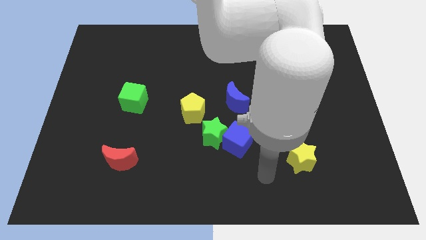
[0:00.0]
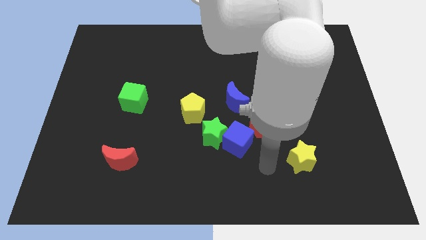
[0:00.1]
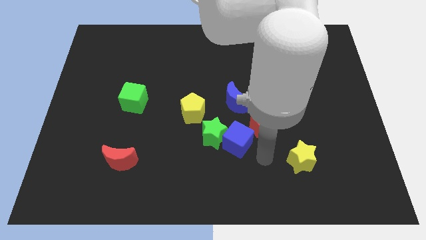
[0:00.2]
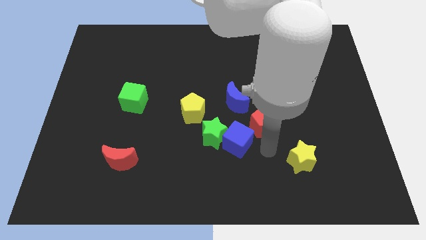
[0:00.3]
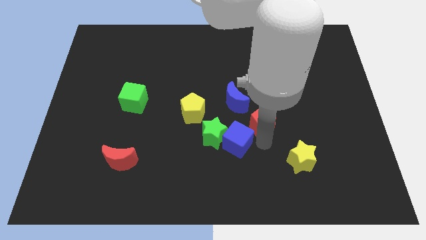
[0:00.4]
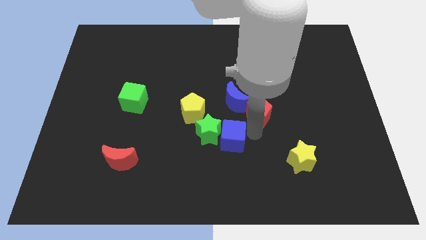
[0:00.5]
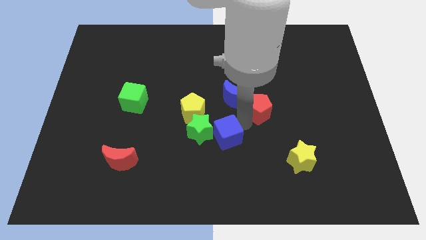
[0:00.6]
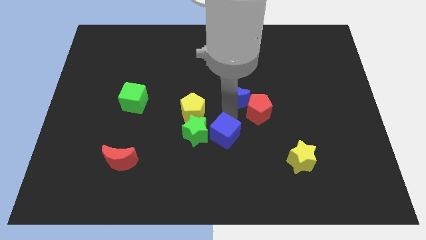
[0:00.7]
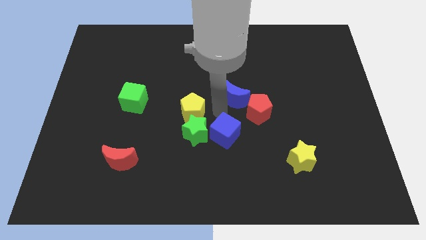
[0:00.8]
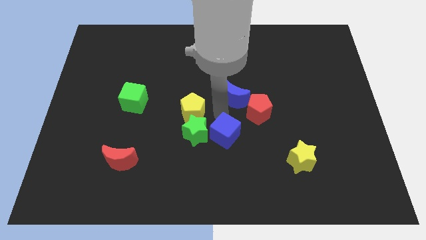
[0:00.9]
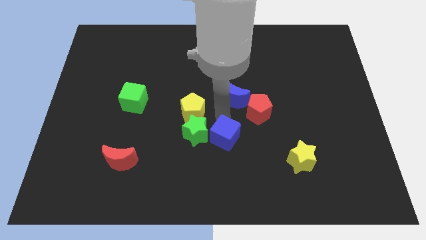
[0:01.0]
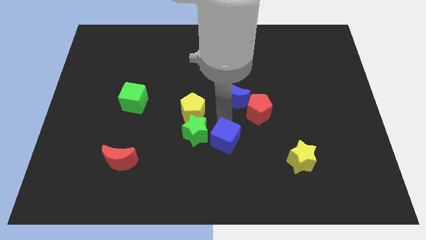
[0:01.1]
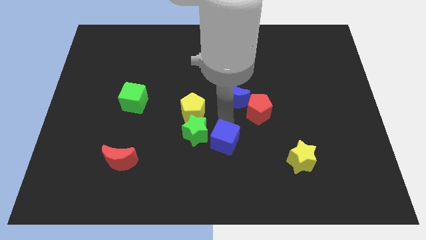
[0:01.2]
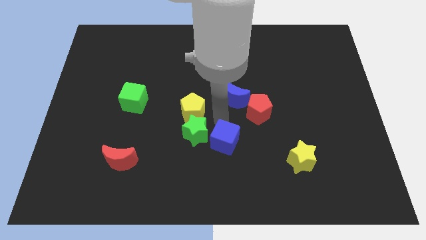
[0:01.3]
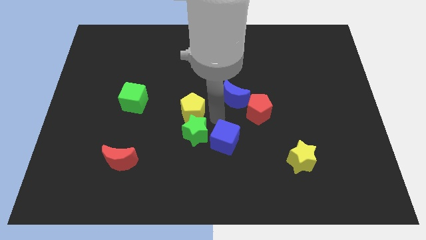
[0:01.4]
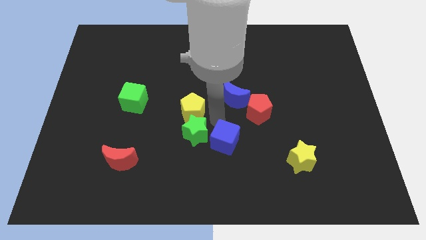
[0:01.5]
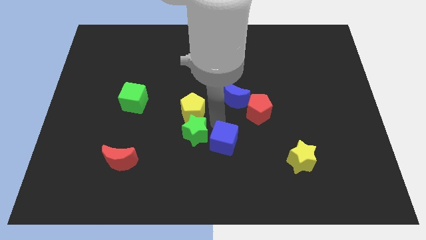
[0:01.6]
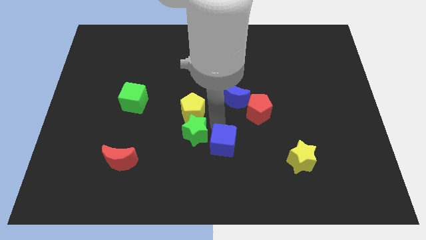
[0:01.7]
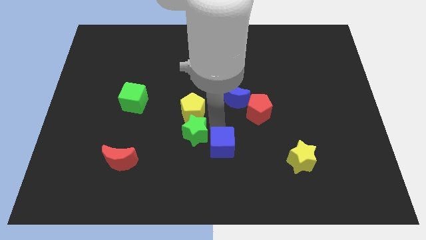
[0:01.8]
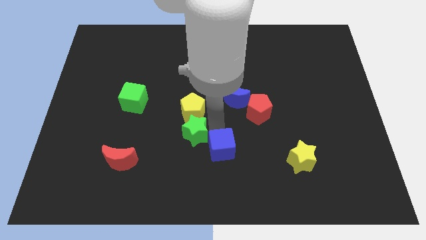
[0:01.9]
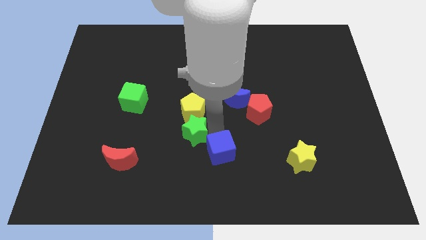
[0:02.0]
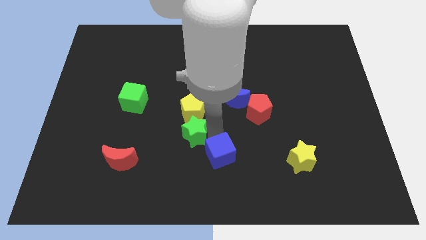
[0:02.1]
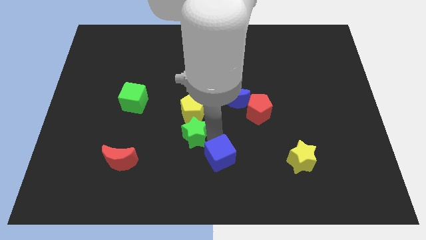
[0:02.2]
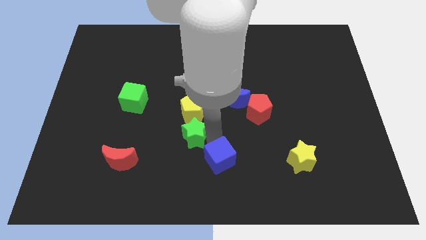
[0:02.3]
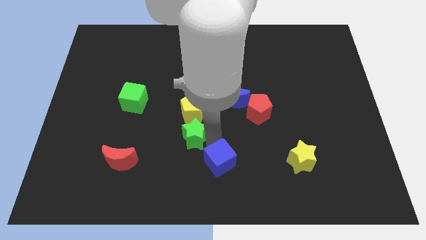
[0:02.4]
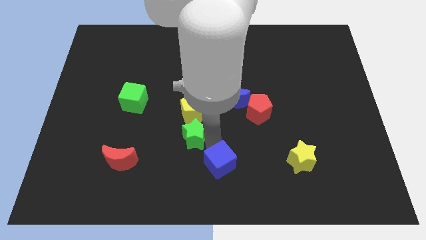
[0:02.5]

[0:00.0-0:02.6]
separate the blue cube from the green star and red pentagon

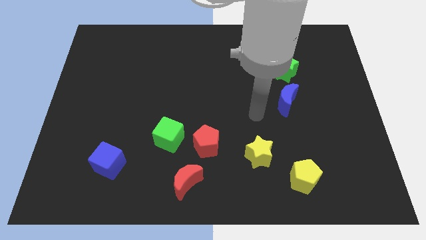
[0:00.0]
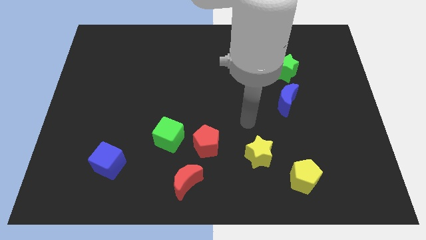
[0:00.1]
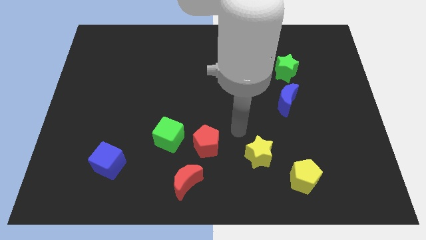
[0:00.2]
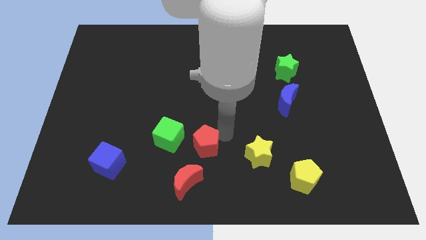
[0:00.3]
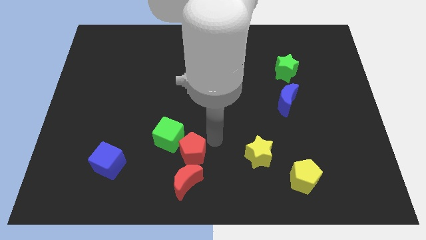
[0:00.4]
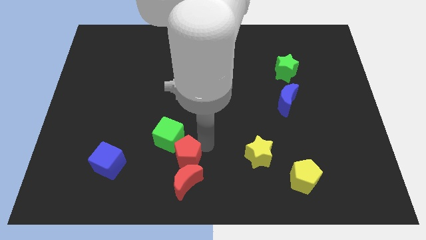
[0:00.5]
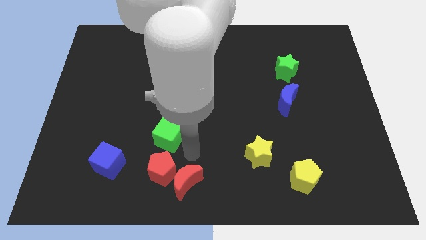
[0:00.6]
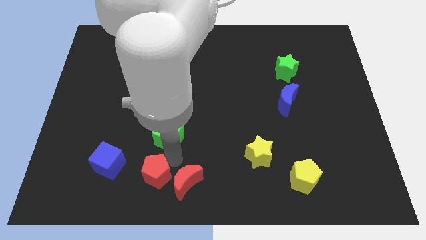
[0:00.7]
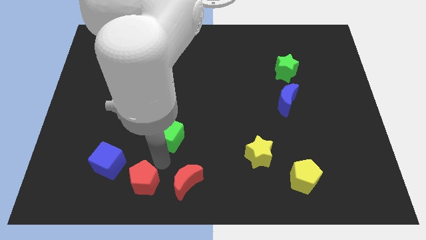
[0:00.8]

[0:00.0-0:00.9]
pull the green cube apart from the red pentagon

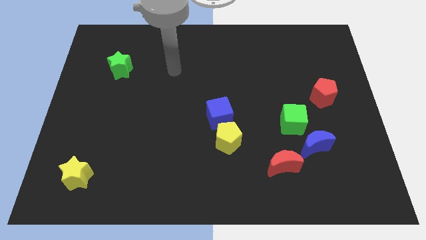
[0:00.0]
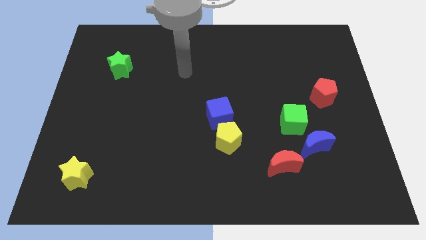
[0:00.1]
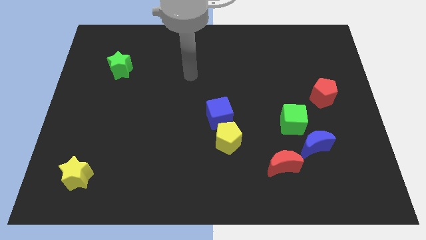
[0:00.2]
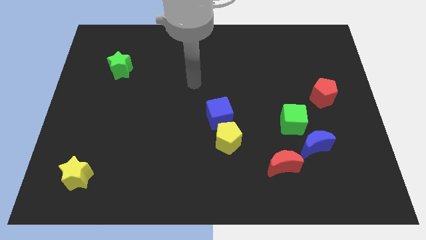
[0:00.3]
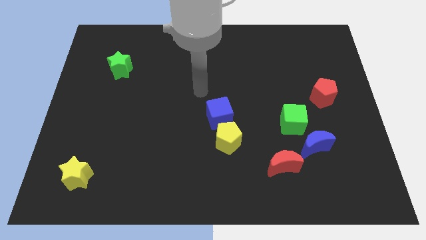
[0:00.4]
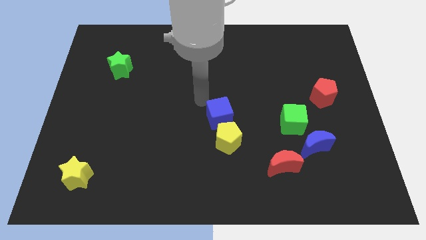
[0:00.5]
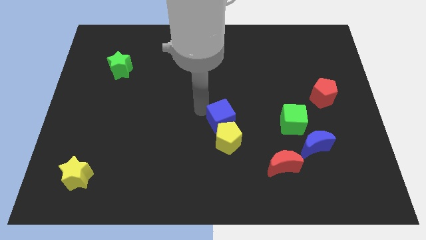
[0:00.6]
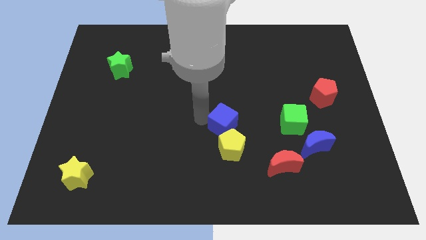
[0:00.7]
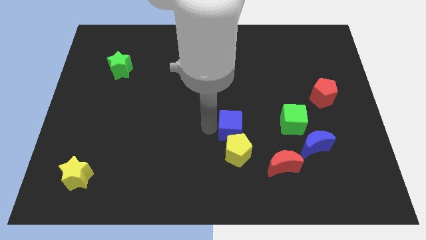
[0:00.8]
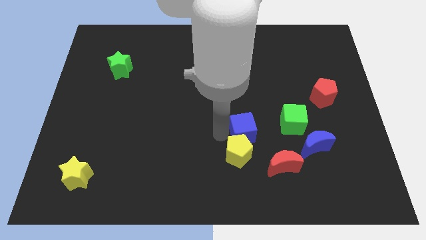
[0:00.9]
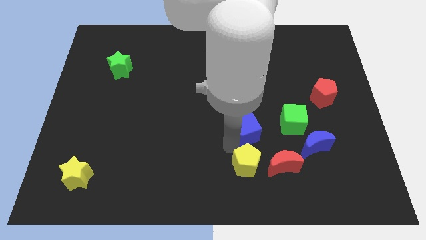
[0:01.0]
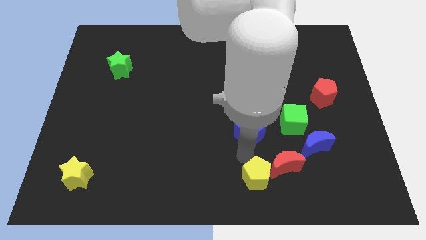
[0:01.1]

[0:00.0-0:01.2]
move the blue cube away from the yellow pentagon

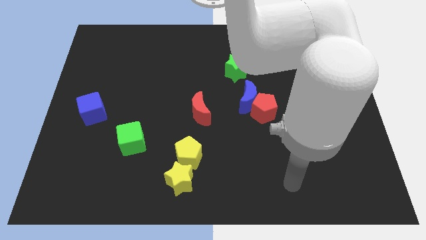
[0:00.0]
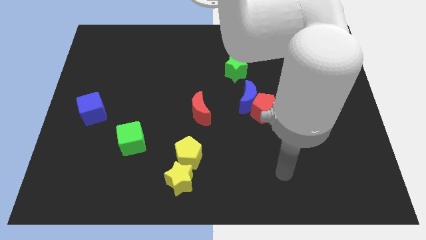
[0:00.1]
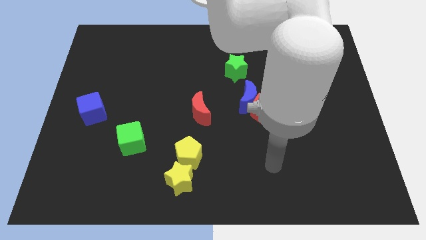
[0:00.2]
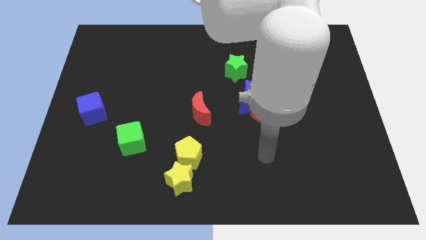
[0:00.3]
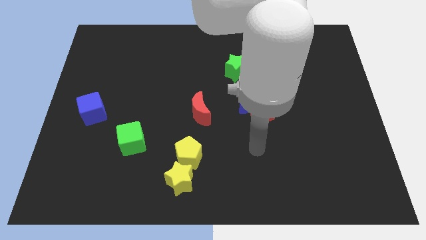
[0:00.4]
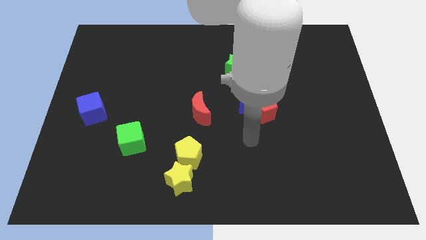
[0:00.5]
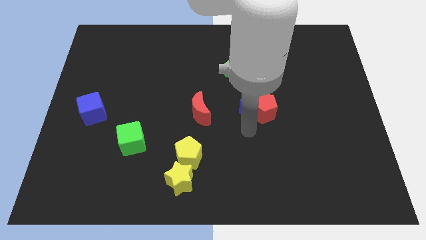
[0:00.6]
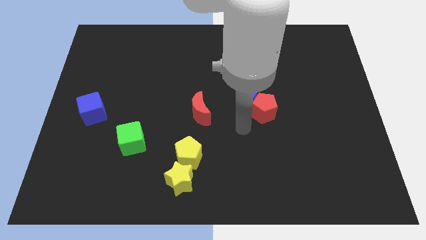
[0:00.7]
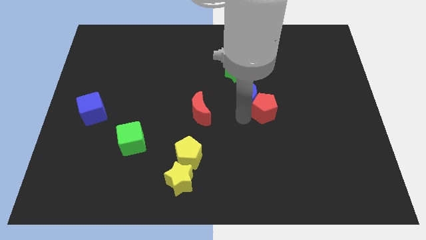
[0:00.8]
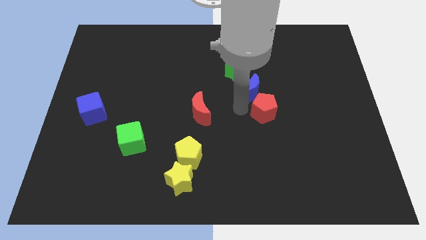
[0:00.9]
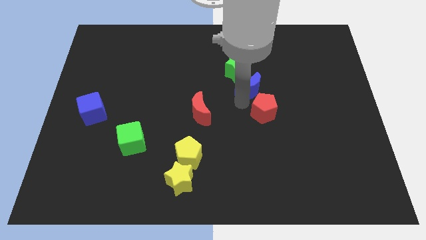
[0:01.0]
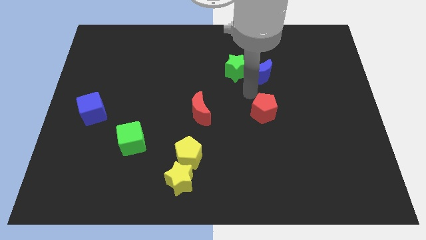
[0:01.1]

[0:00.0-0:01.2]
pull the red pentagon apart from the blue moon

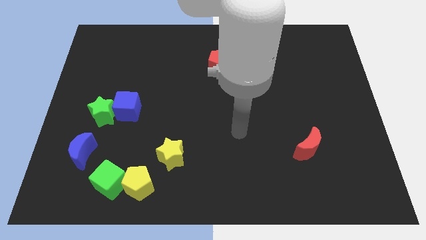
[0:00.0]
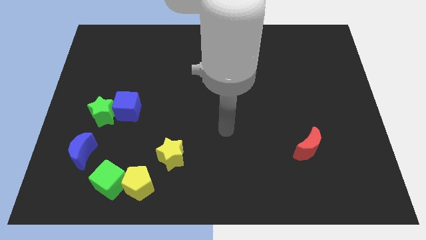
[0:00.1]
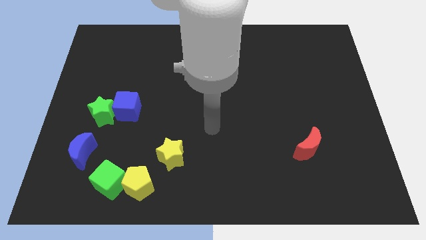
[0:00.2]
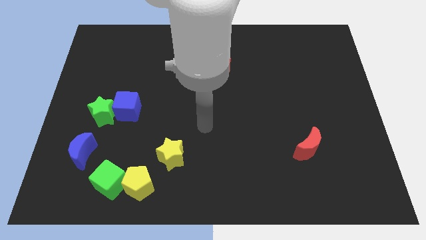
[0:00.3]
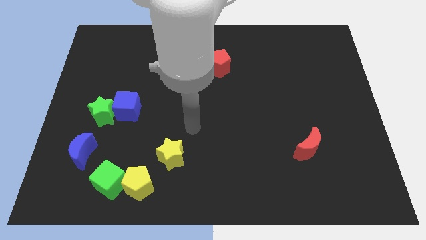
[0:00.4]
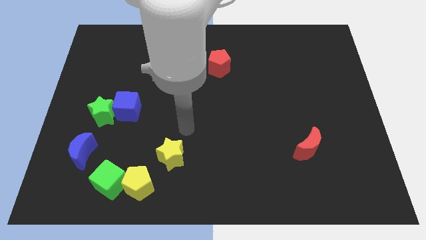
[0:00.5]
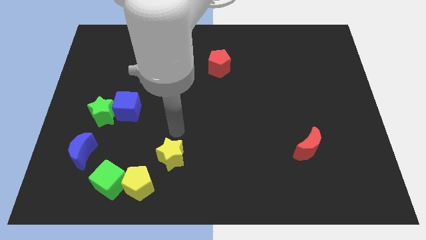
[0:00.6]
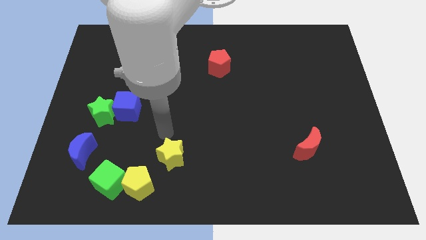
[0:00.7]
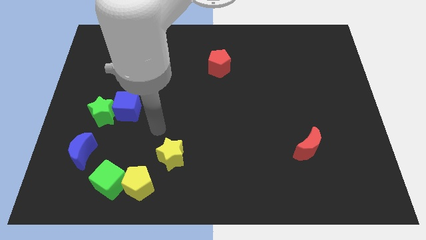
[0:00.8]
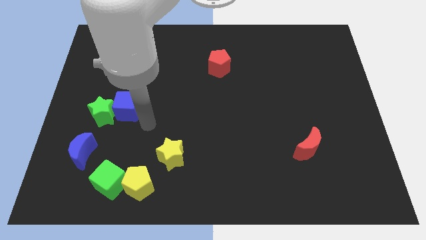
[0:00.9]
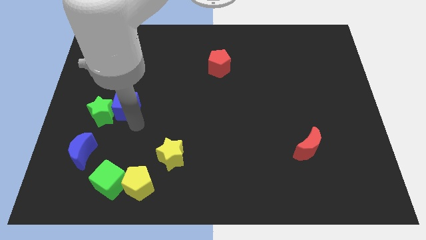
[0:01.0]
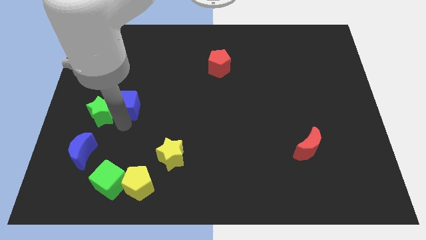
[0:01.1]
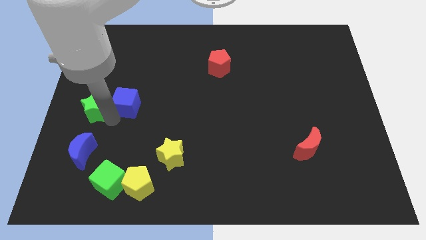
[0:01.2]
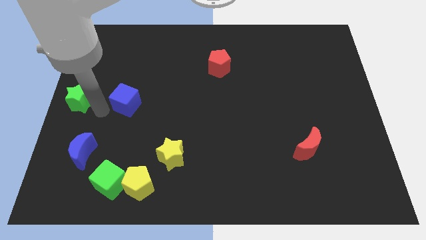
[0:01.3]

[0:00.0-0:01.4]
separate the blue cube from the green star

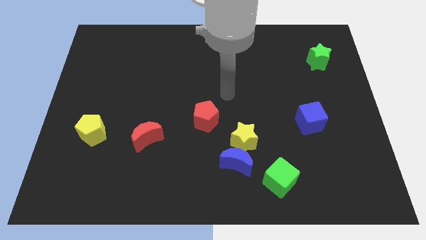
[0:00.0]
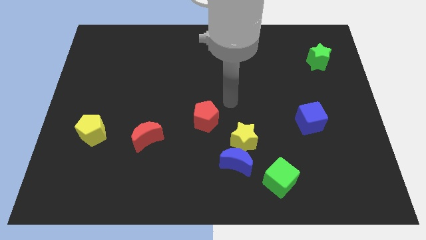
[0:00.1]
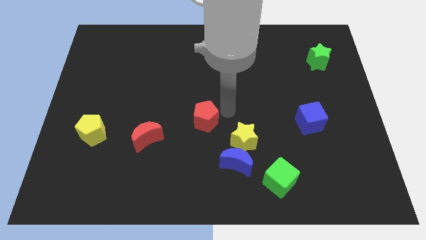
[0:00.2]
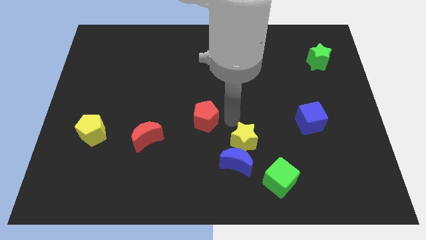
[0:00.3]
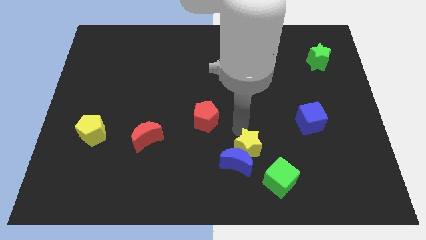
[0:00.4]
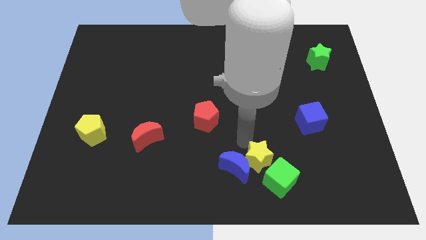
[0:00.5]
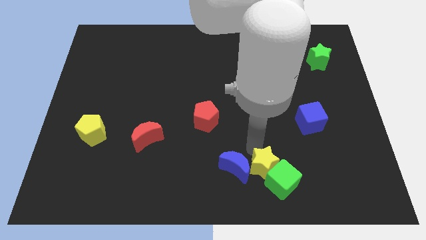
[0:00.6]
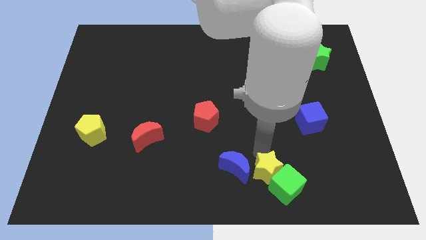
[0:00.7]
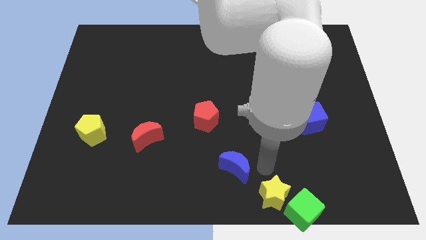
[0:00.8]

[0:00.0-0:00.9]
pull the blue moon apart from the yellow star and green cube

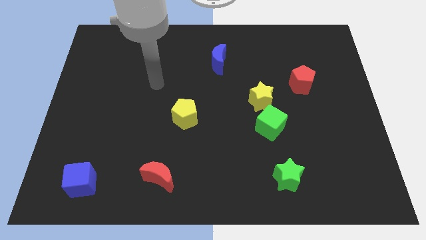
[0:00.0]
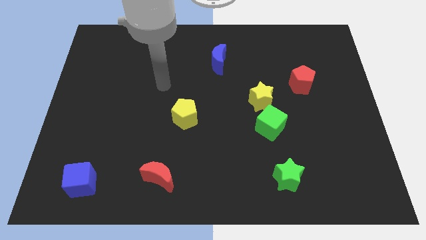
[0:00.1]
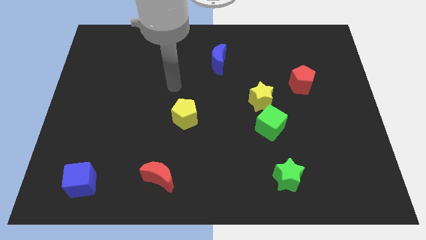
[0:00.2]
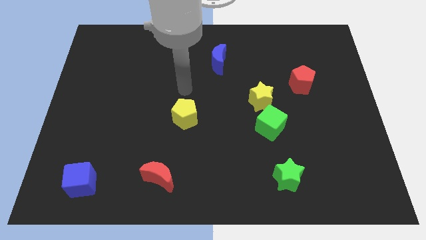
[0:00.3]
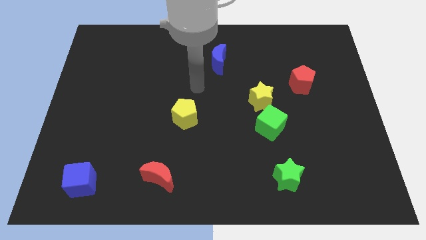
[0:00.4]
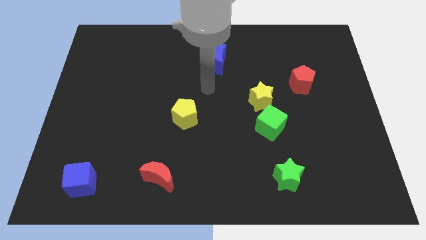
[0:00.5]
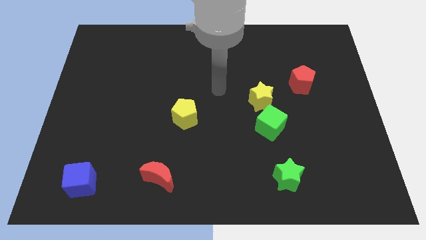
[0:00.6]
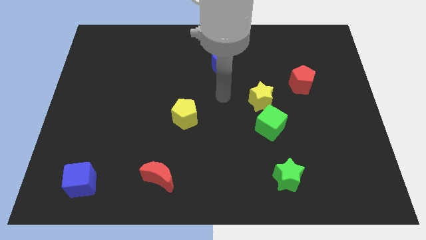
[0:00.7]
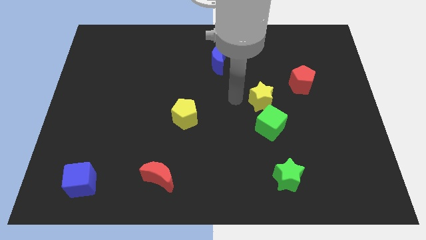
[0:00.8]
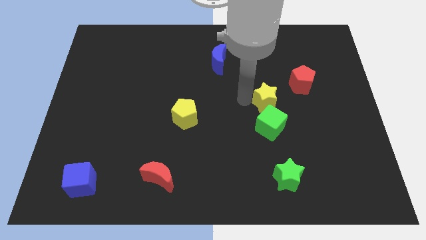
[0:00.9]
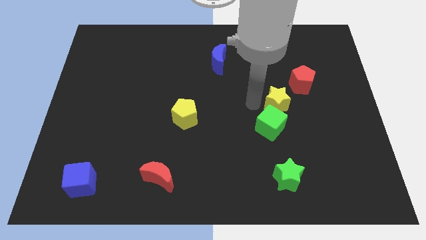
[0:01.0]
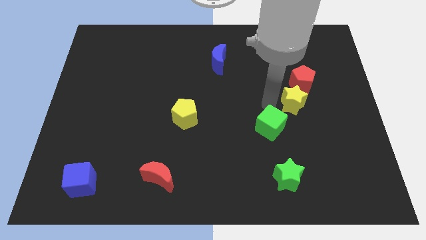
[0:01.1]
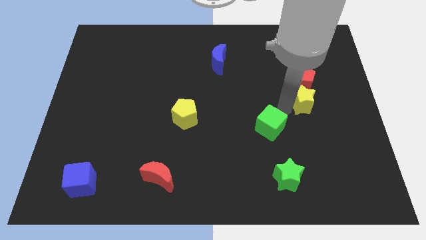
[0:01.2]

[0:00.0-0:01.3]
pull the green cube apart from the yellow star
